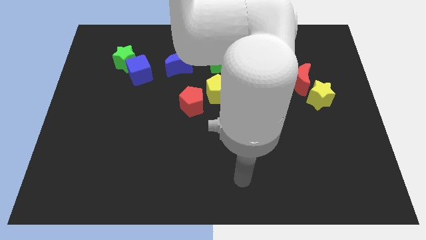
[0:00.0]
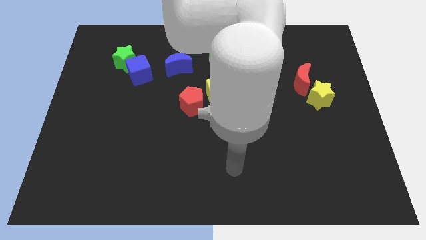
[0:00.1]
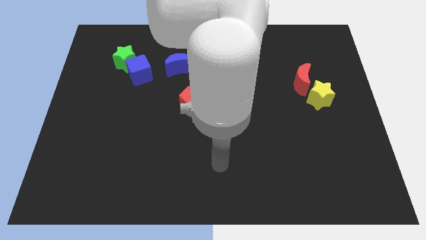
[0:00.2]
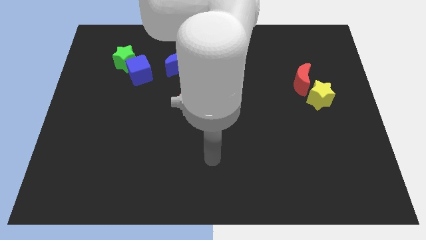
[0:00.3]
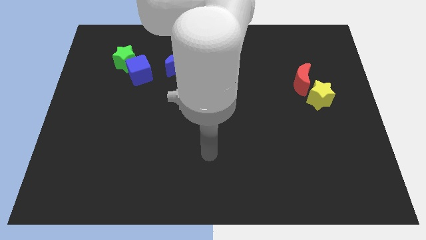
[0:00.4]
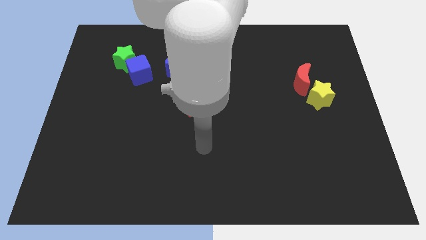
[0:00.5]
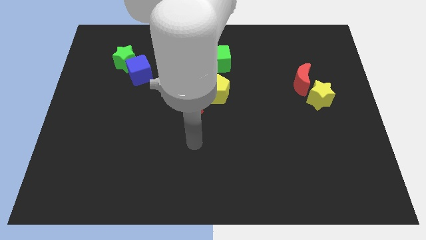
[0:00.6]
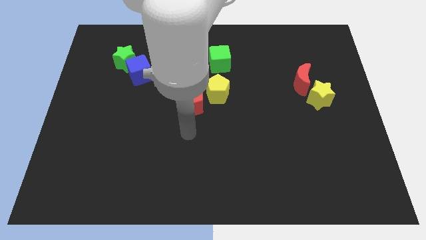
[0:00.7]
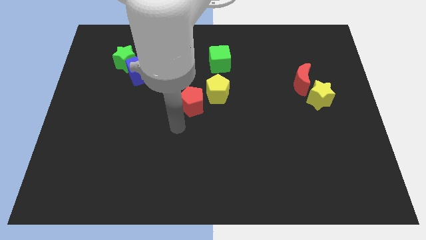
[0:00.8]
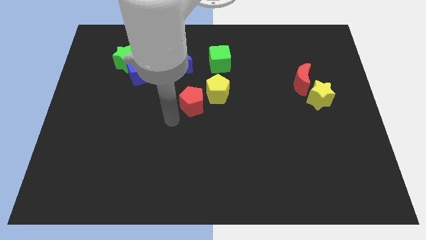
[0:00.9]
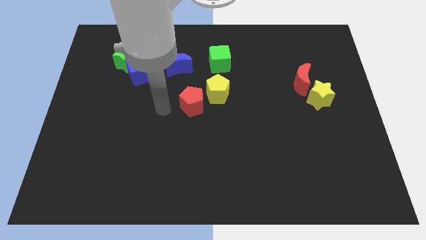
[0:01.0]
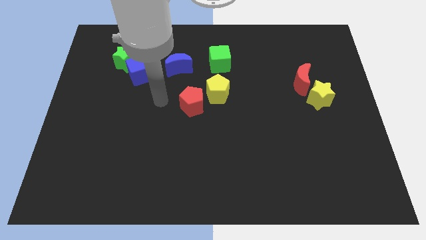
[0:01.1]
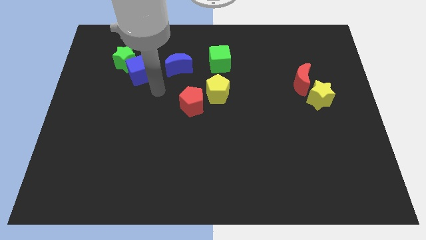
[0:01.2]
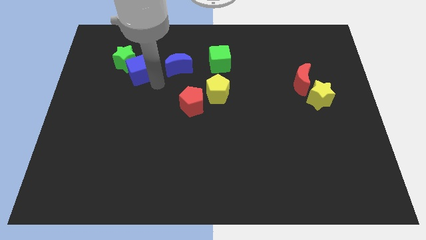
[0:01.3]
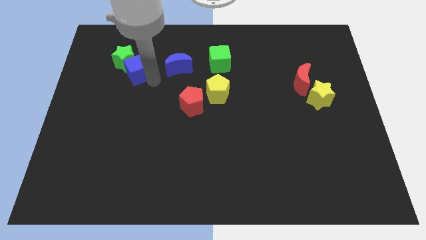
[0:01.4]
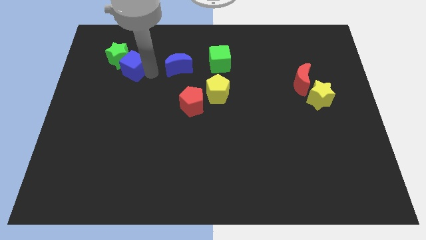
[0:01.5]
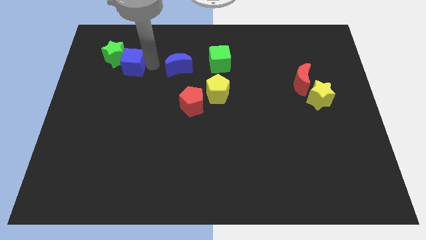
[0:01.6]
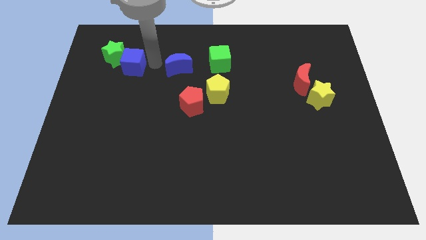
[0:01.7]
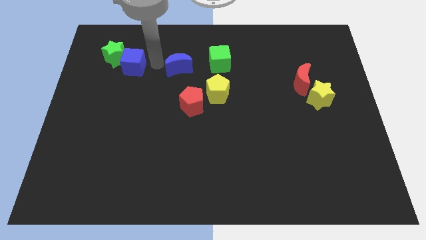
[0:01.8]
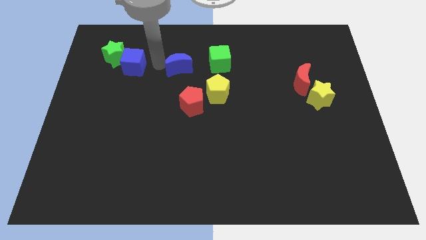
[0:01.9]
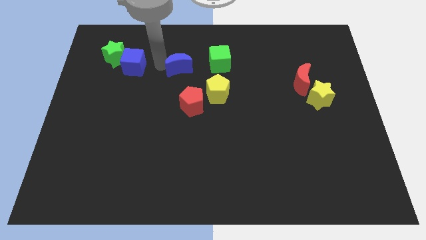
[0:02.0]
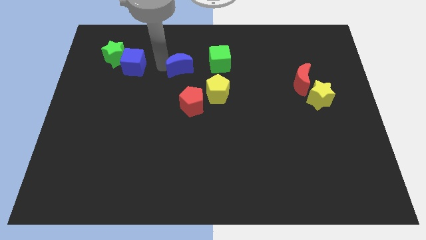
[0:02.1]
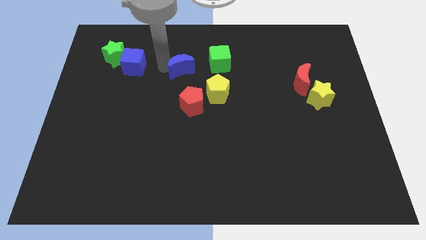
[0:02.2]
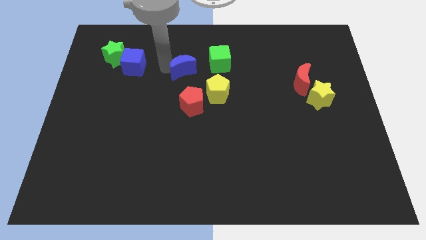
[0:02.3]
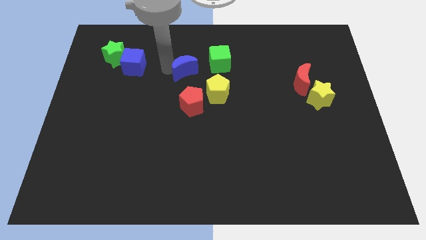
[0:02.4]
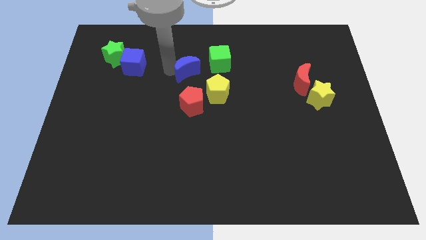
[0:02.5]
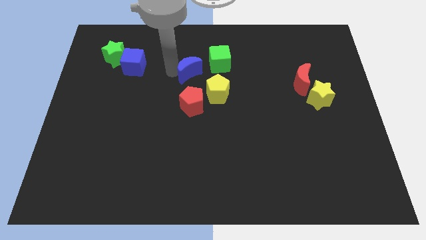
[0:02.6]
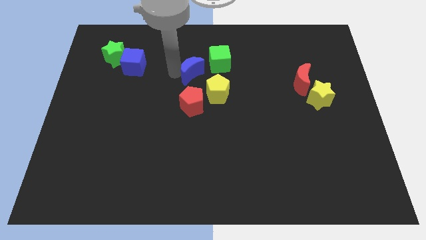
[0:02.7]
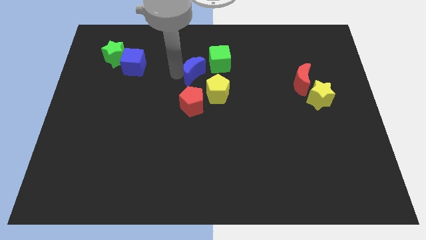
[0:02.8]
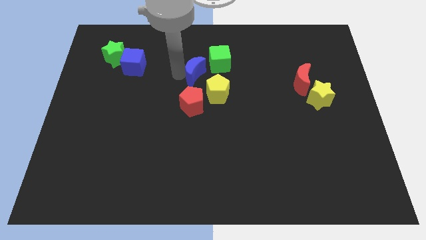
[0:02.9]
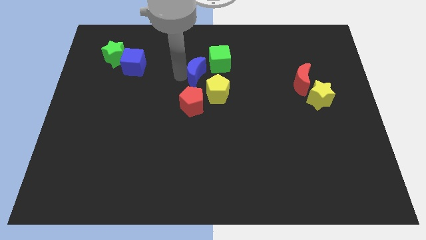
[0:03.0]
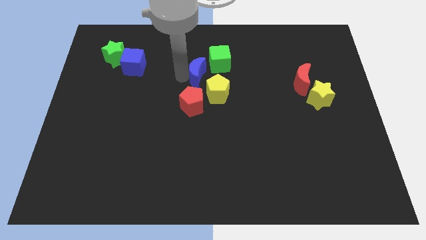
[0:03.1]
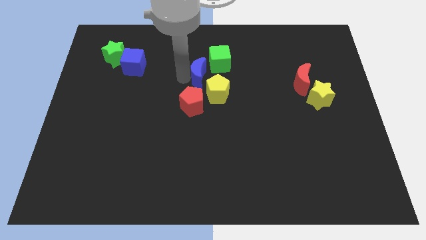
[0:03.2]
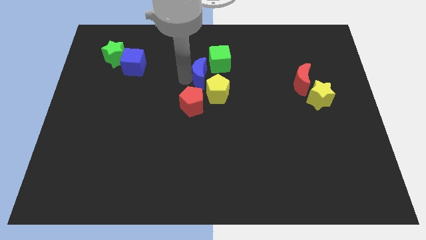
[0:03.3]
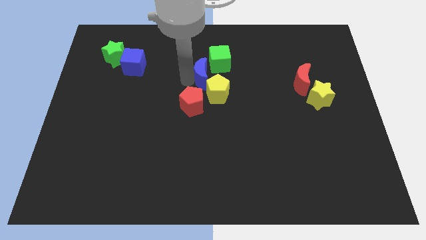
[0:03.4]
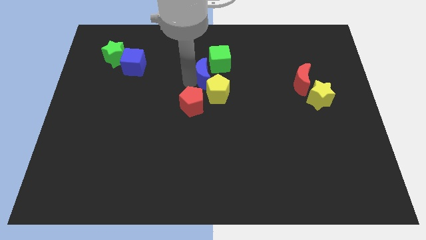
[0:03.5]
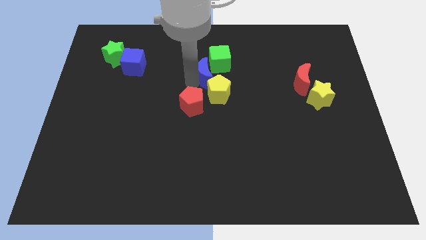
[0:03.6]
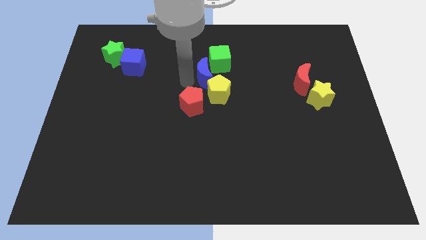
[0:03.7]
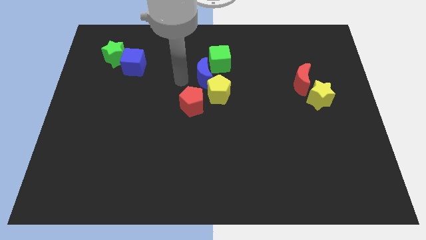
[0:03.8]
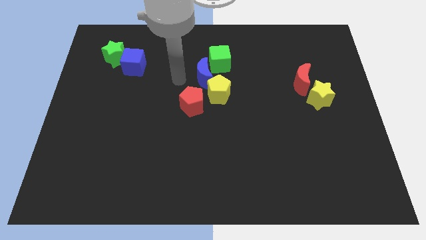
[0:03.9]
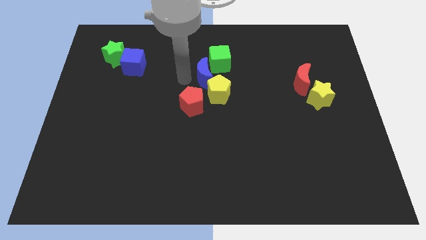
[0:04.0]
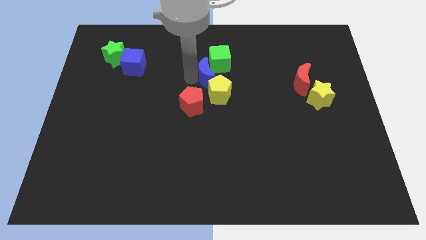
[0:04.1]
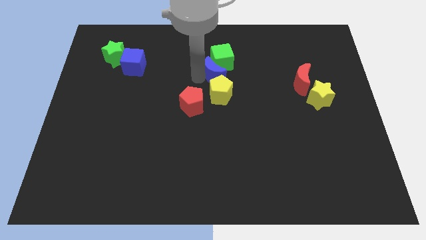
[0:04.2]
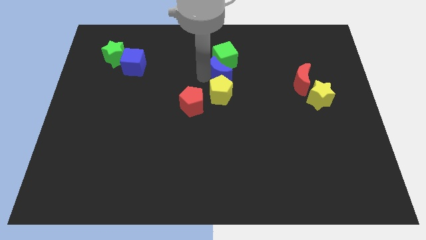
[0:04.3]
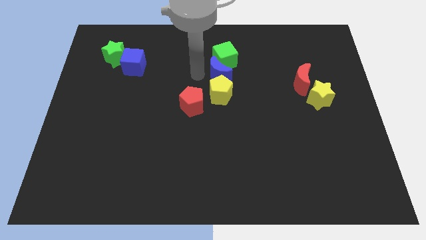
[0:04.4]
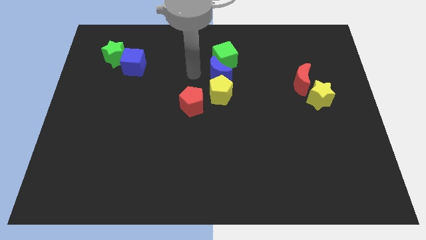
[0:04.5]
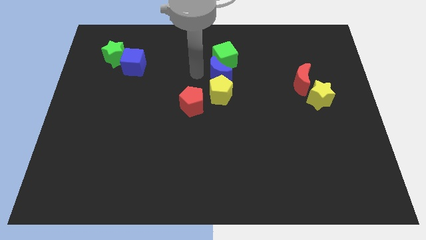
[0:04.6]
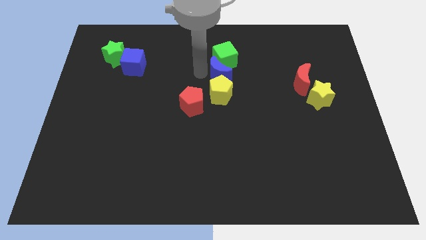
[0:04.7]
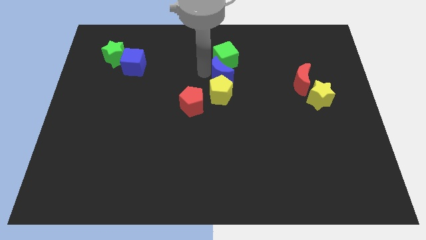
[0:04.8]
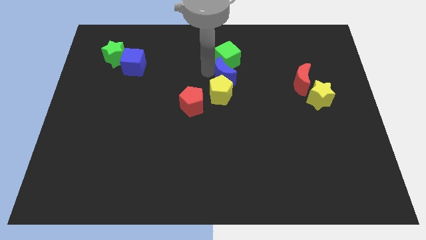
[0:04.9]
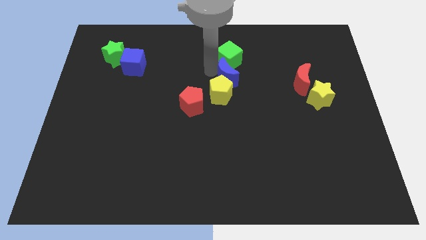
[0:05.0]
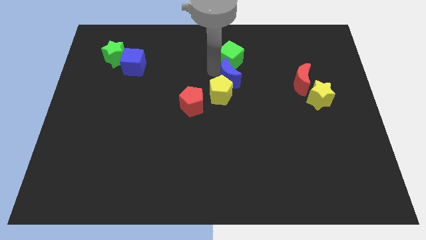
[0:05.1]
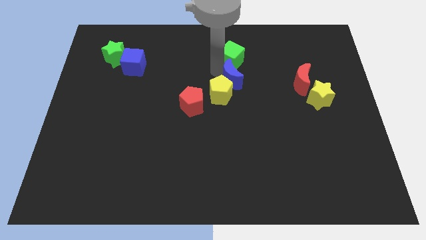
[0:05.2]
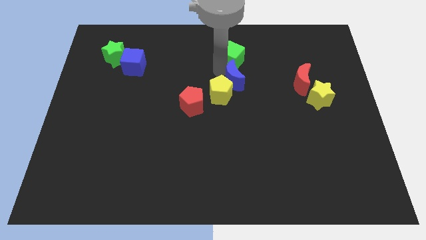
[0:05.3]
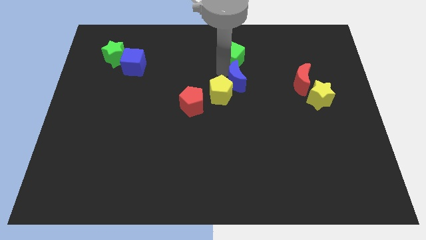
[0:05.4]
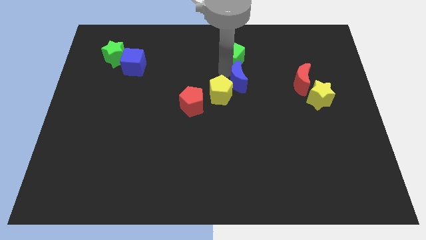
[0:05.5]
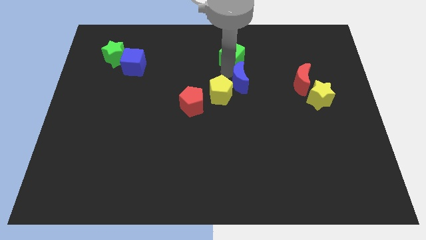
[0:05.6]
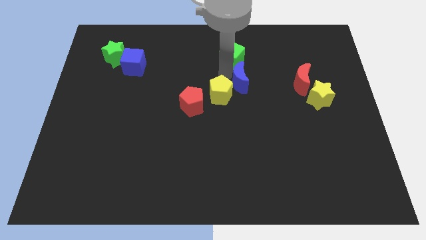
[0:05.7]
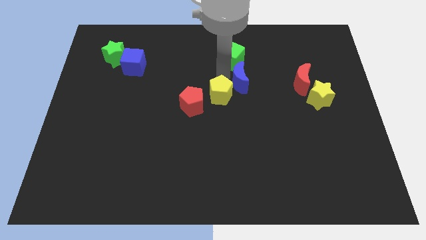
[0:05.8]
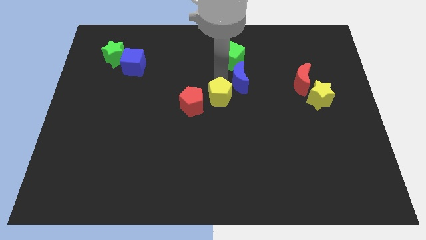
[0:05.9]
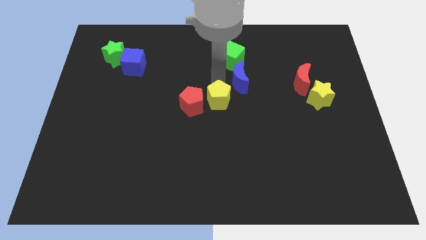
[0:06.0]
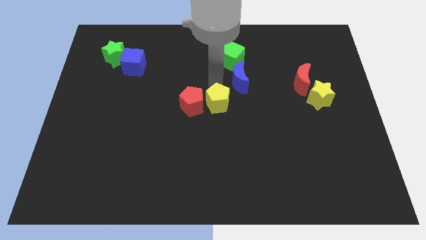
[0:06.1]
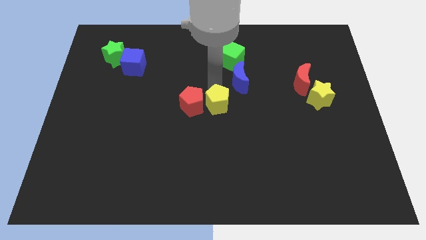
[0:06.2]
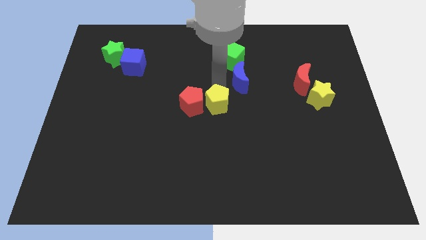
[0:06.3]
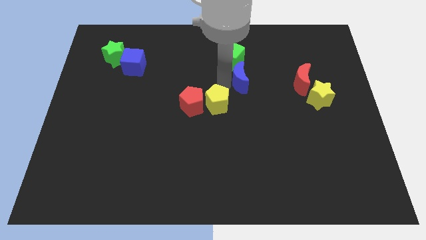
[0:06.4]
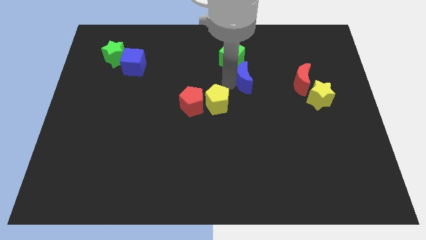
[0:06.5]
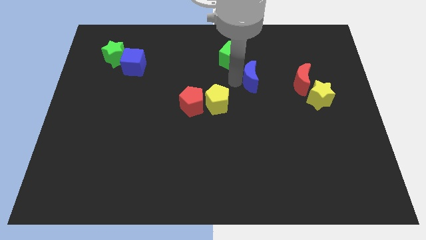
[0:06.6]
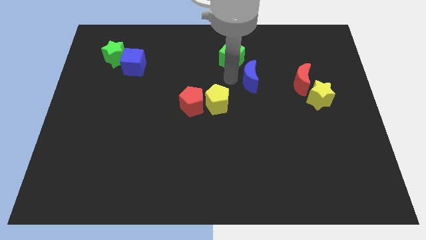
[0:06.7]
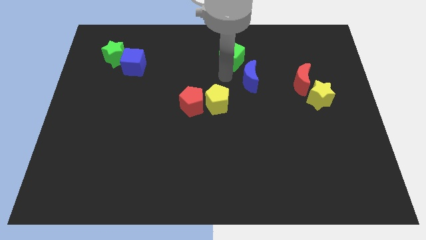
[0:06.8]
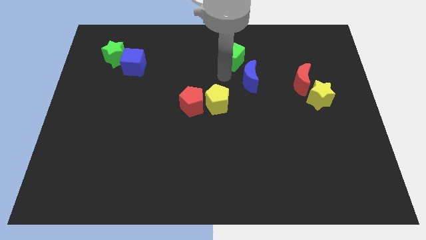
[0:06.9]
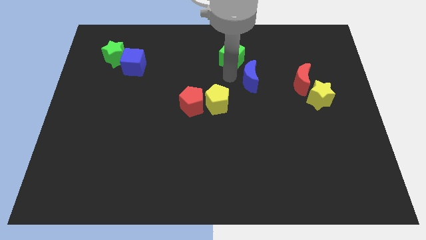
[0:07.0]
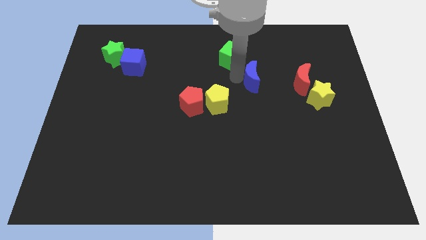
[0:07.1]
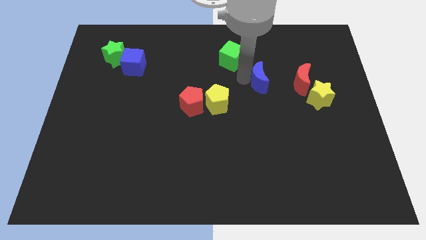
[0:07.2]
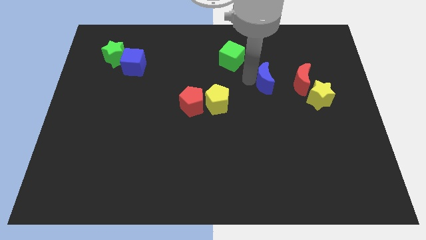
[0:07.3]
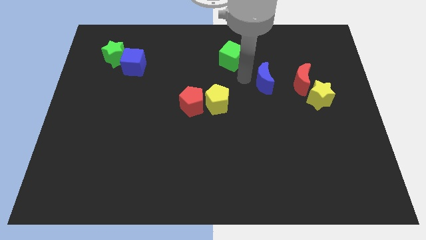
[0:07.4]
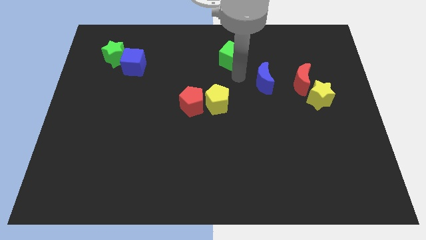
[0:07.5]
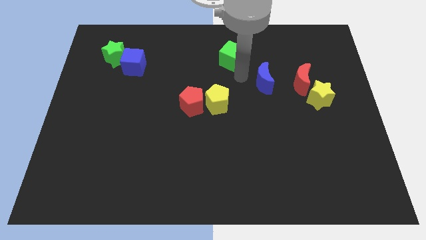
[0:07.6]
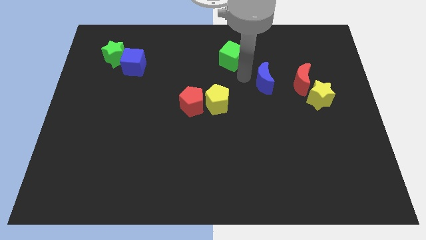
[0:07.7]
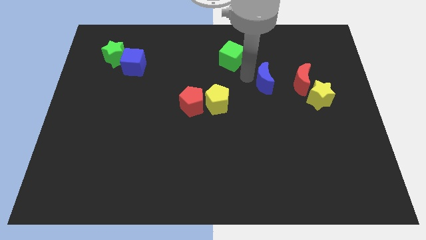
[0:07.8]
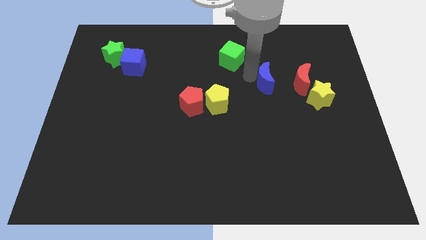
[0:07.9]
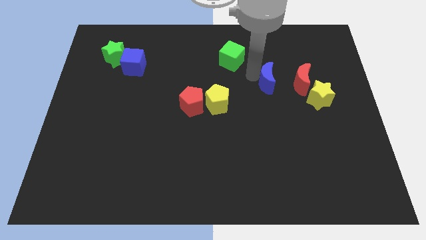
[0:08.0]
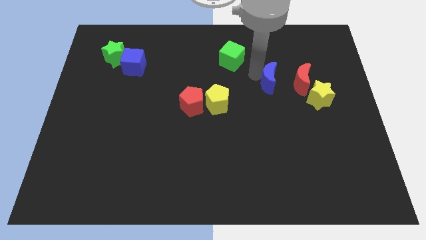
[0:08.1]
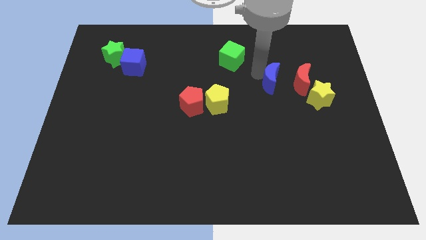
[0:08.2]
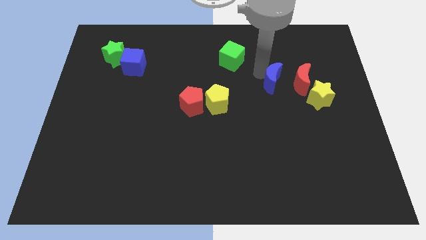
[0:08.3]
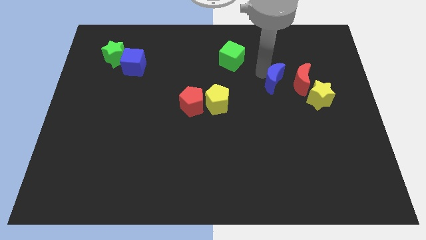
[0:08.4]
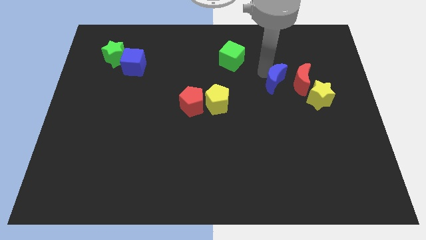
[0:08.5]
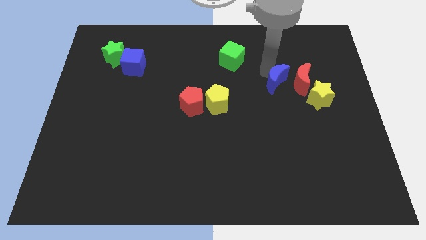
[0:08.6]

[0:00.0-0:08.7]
put the blue moon close to the red moon
